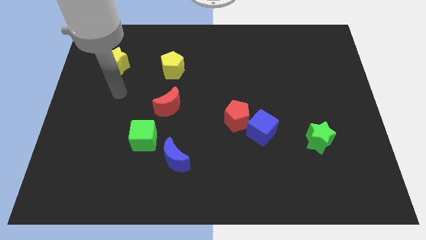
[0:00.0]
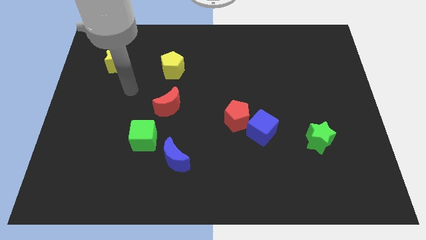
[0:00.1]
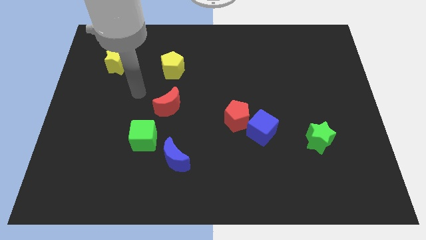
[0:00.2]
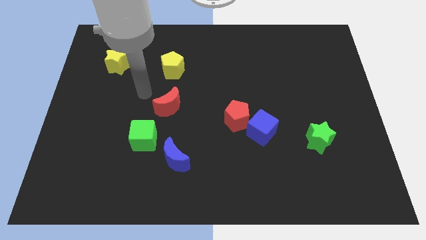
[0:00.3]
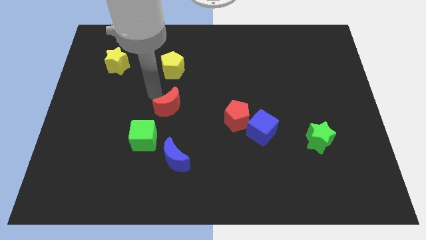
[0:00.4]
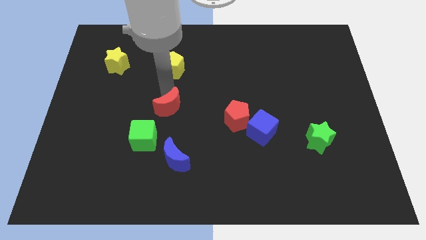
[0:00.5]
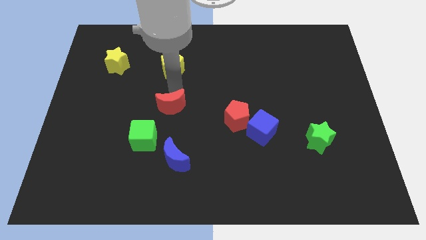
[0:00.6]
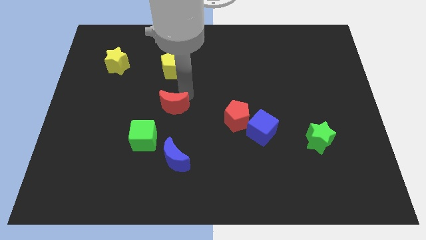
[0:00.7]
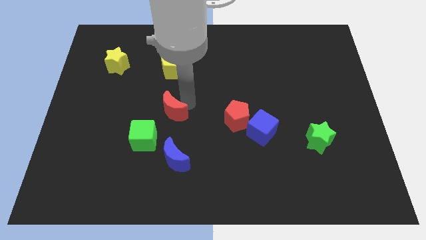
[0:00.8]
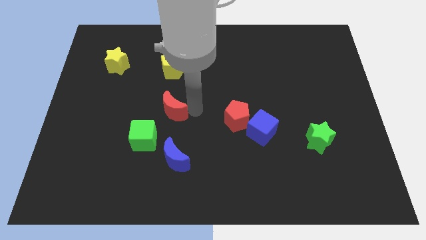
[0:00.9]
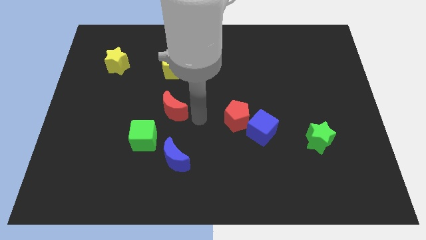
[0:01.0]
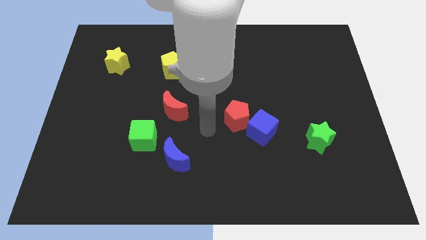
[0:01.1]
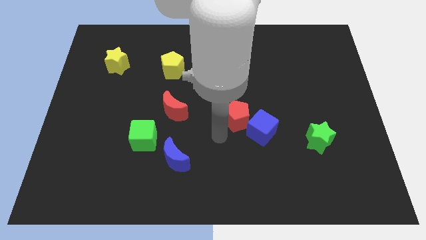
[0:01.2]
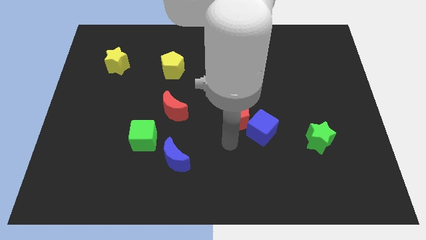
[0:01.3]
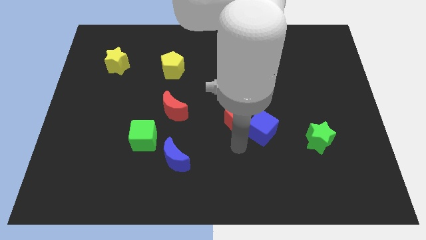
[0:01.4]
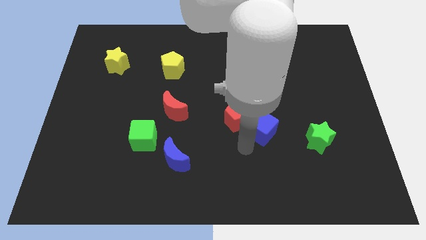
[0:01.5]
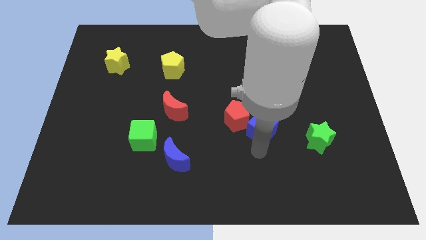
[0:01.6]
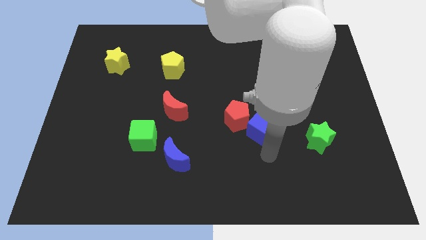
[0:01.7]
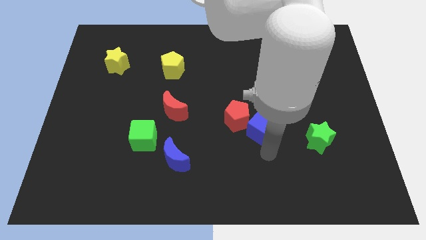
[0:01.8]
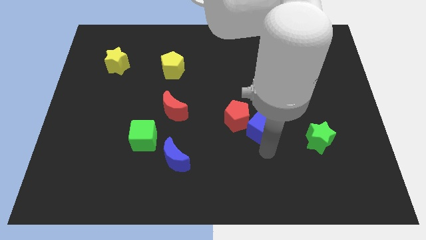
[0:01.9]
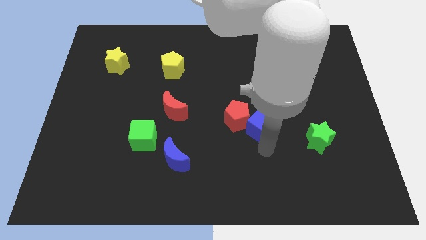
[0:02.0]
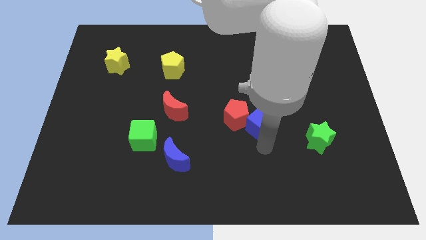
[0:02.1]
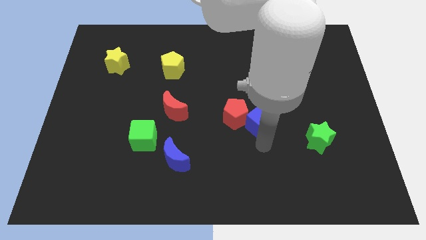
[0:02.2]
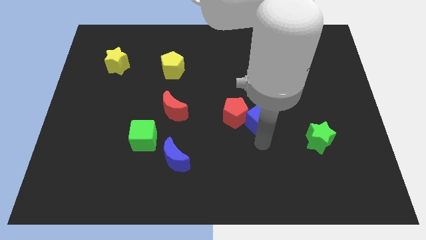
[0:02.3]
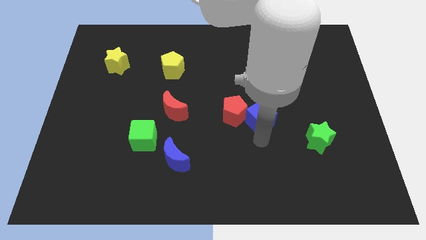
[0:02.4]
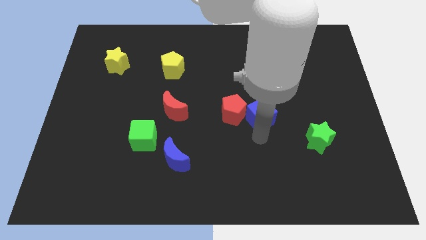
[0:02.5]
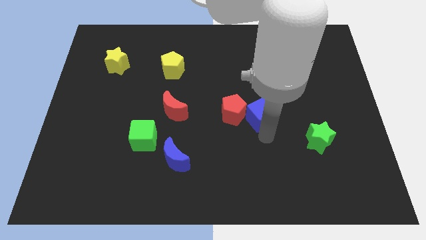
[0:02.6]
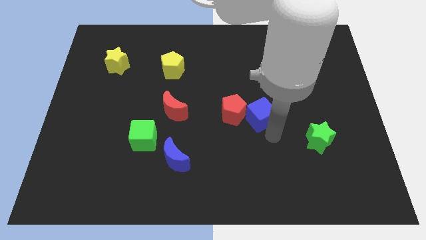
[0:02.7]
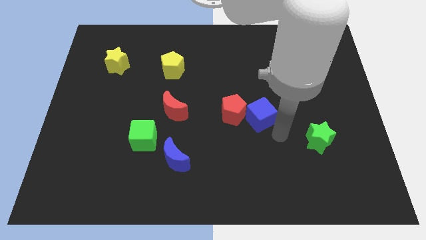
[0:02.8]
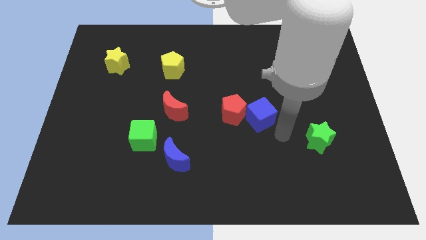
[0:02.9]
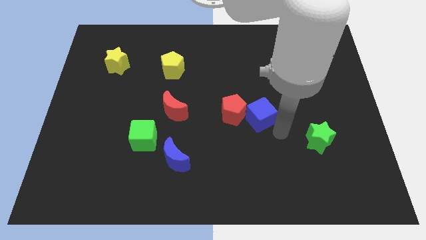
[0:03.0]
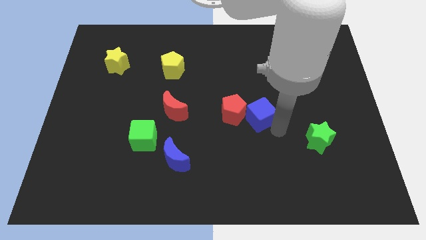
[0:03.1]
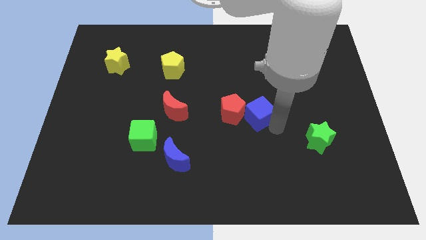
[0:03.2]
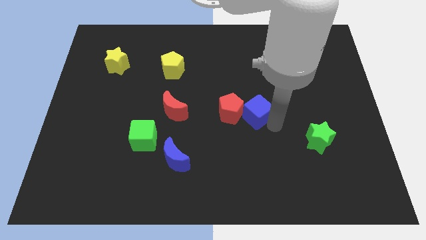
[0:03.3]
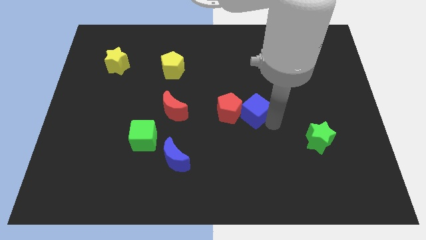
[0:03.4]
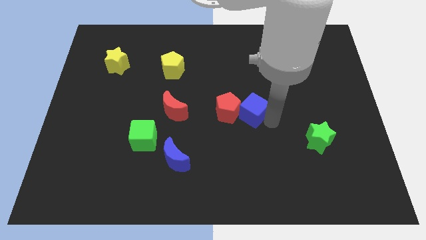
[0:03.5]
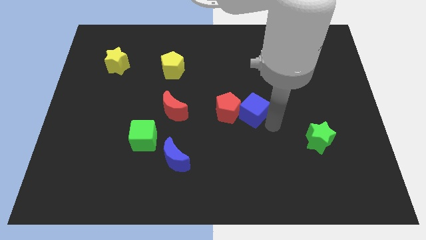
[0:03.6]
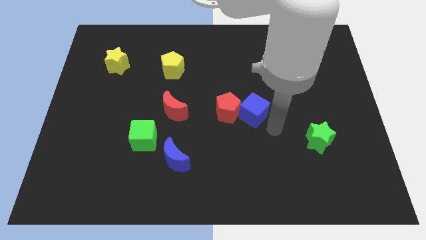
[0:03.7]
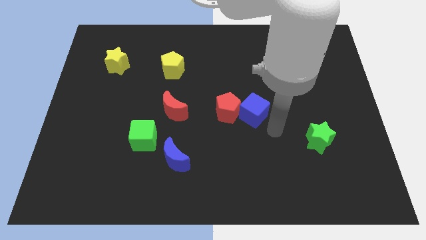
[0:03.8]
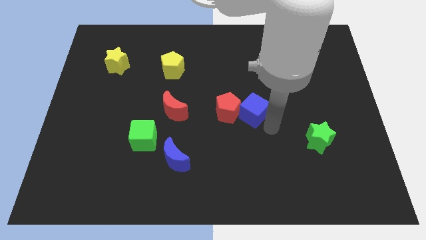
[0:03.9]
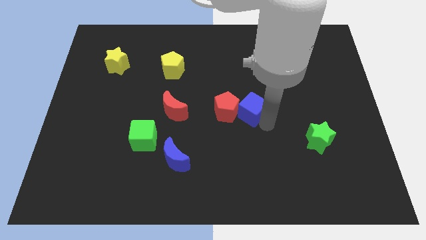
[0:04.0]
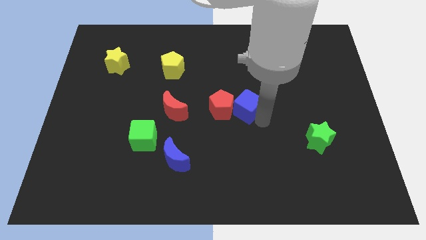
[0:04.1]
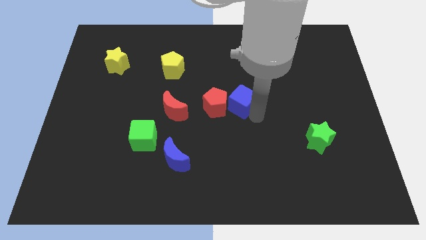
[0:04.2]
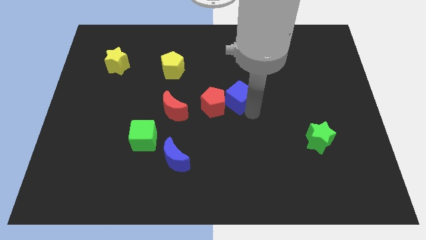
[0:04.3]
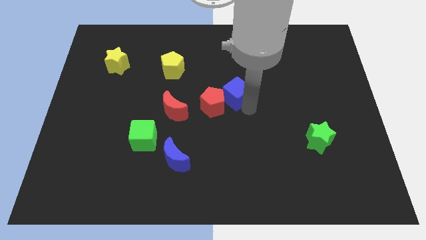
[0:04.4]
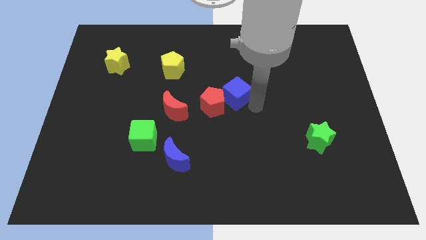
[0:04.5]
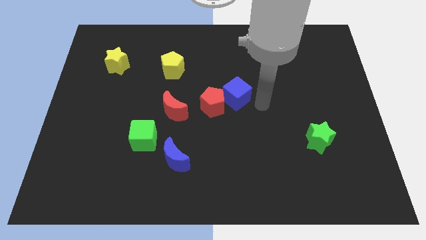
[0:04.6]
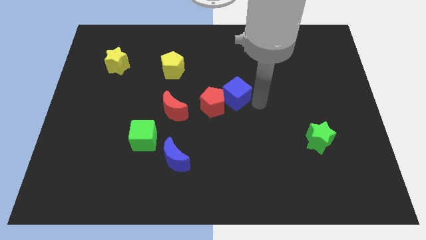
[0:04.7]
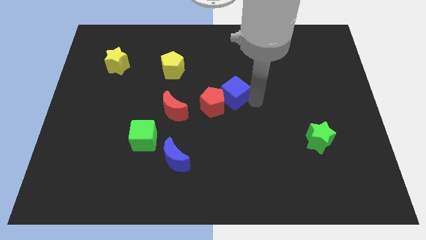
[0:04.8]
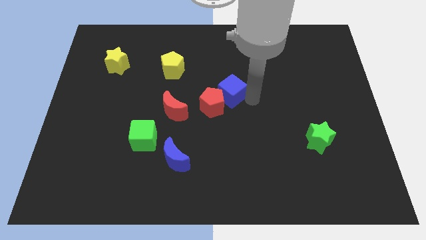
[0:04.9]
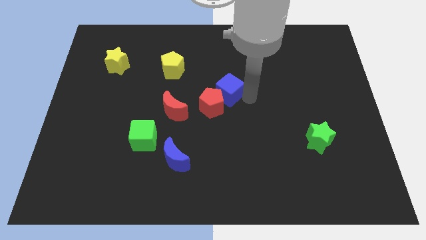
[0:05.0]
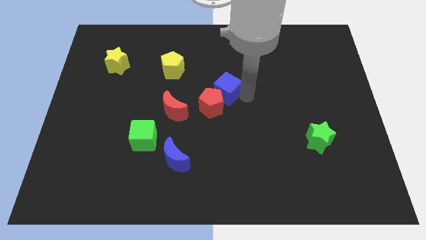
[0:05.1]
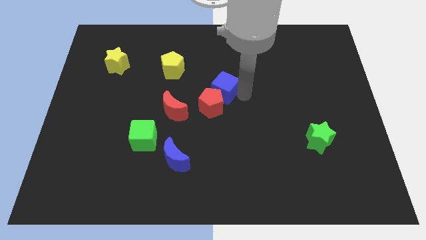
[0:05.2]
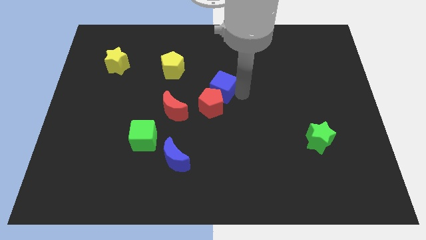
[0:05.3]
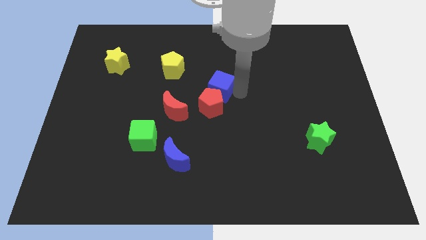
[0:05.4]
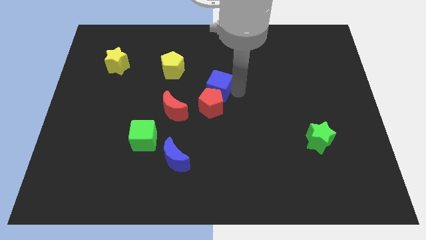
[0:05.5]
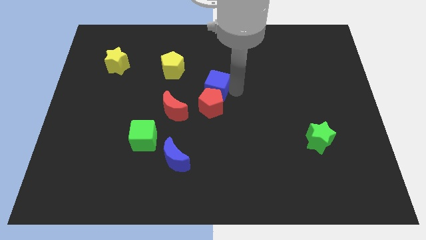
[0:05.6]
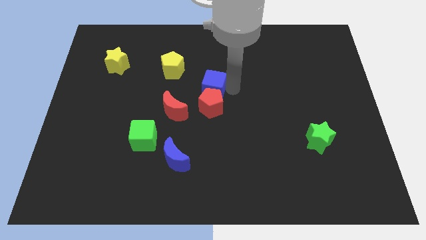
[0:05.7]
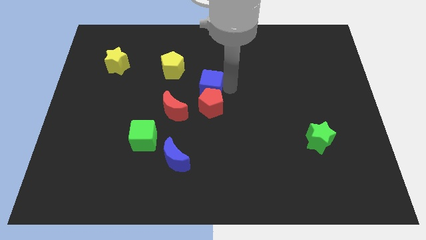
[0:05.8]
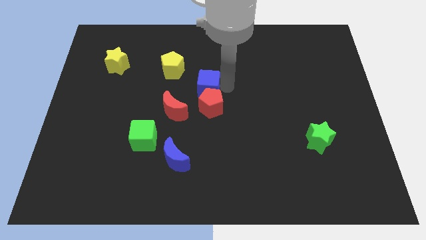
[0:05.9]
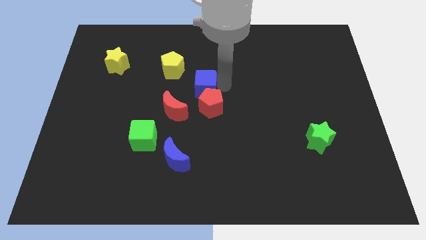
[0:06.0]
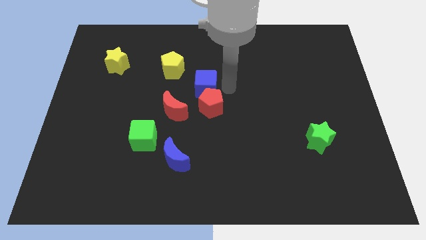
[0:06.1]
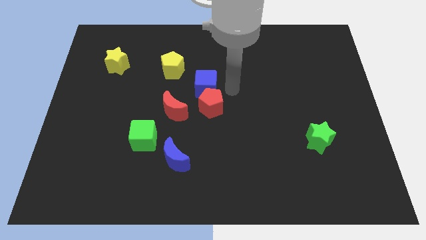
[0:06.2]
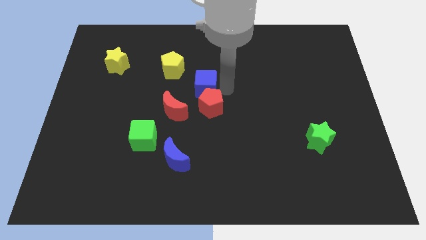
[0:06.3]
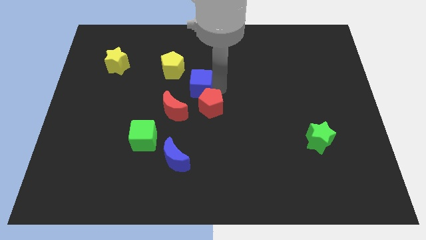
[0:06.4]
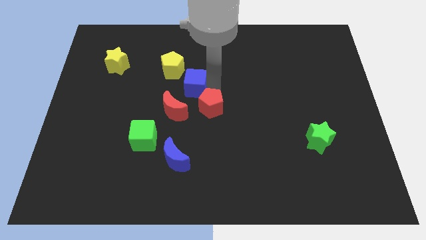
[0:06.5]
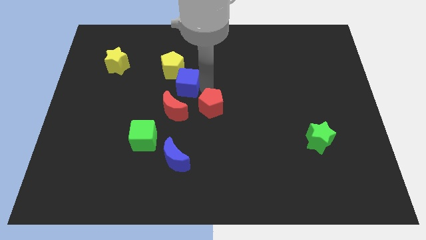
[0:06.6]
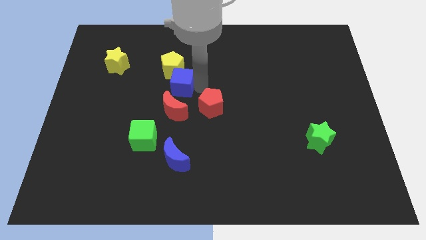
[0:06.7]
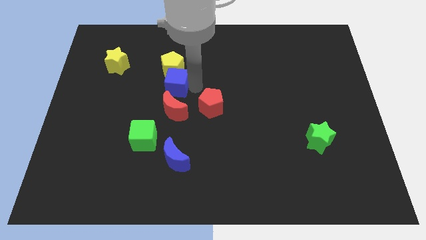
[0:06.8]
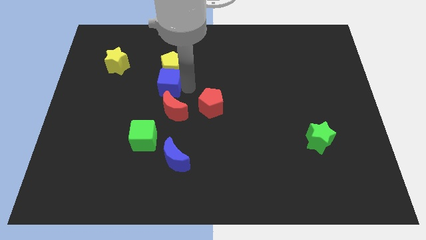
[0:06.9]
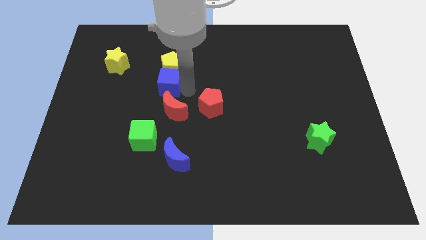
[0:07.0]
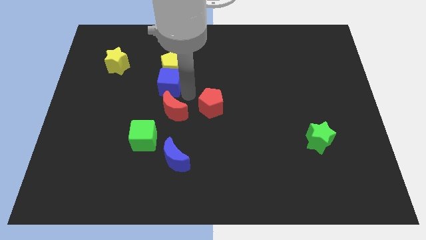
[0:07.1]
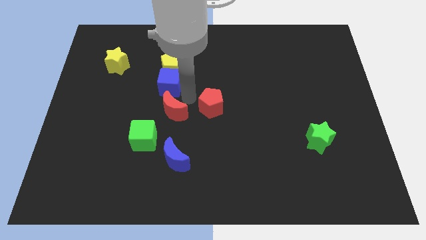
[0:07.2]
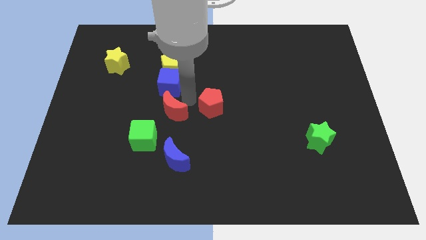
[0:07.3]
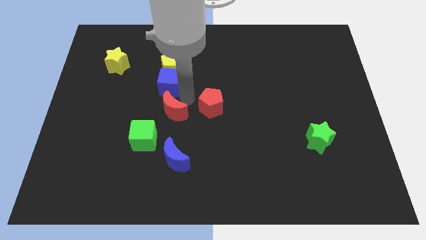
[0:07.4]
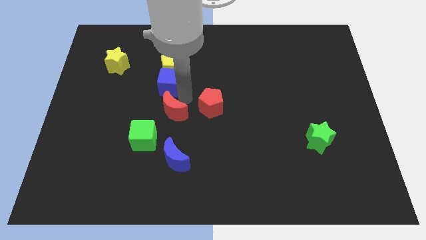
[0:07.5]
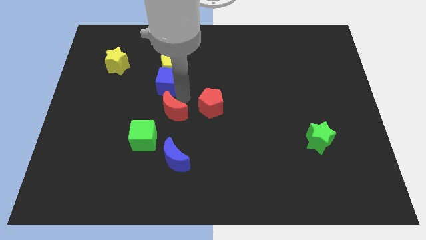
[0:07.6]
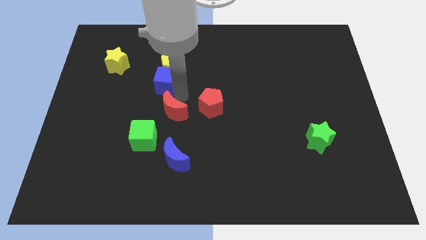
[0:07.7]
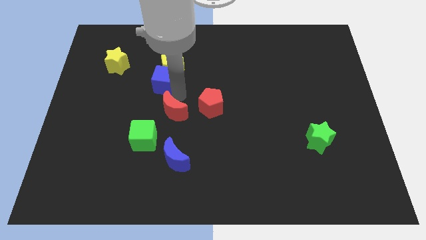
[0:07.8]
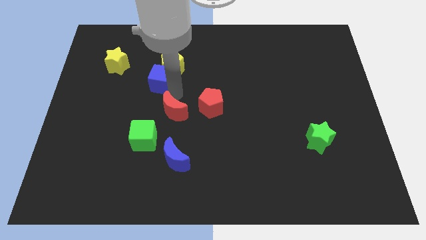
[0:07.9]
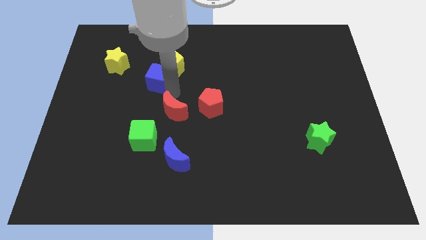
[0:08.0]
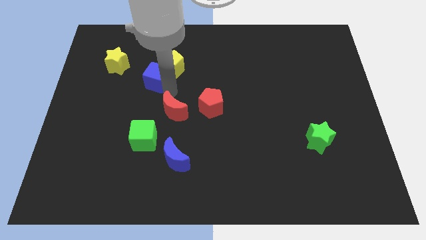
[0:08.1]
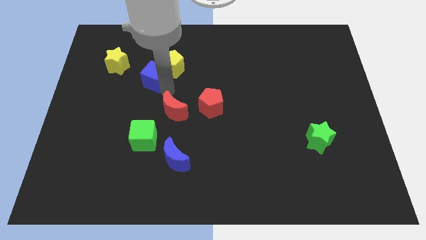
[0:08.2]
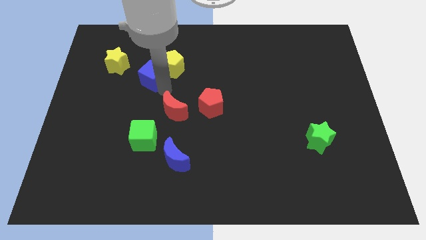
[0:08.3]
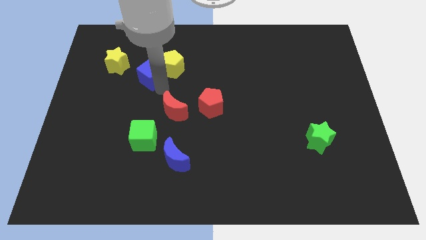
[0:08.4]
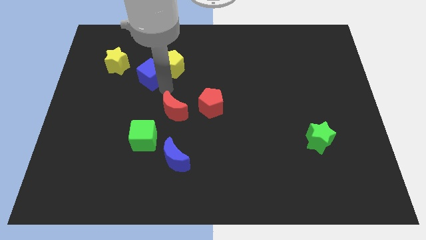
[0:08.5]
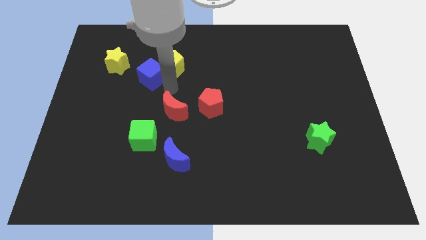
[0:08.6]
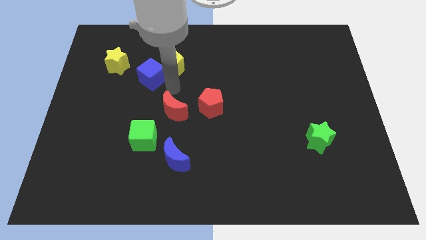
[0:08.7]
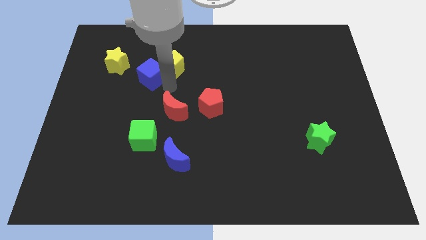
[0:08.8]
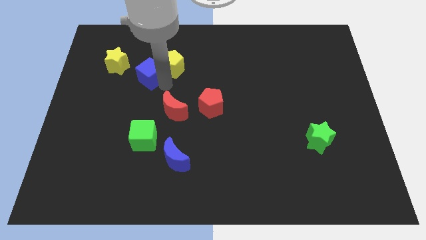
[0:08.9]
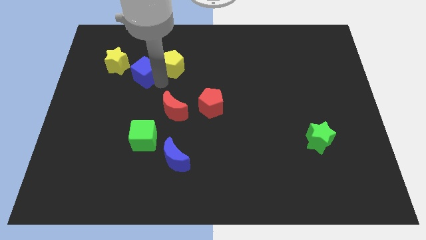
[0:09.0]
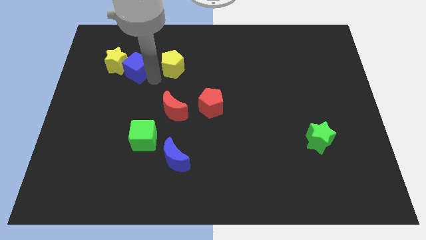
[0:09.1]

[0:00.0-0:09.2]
slide the blue cube next to the yellow star
